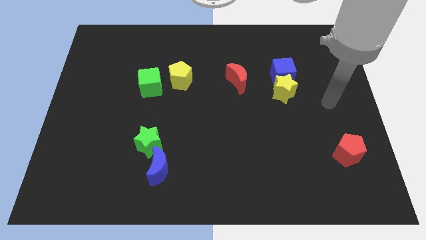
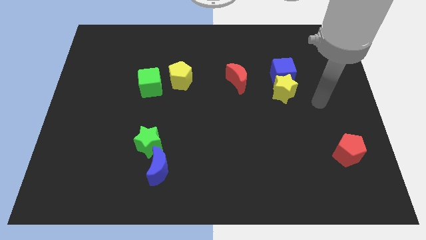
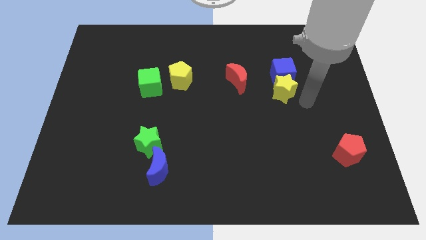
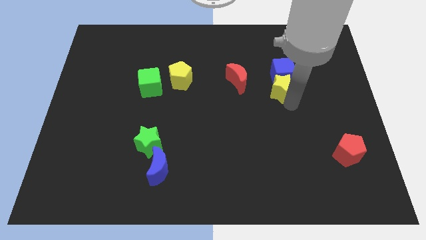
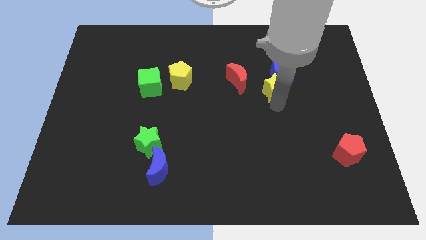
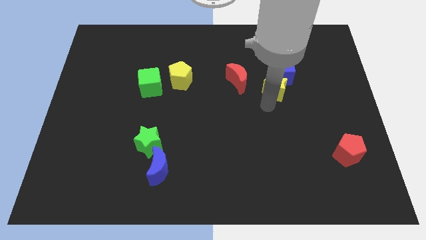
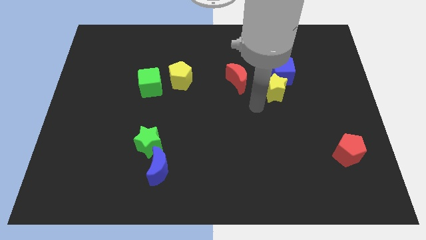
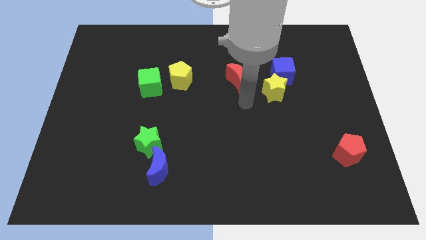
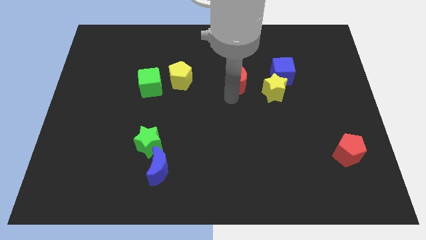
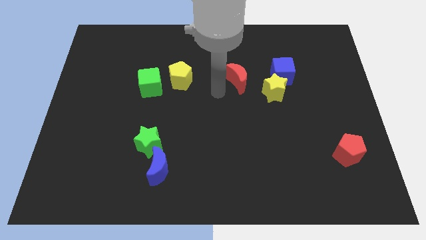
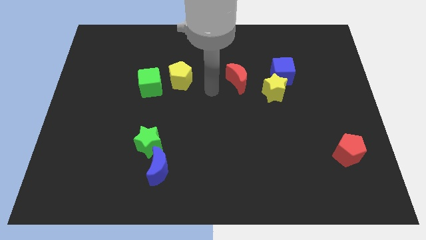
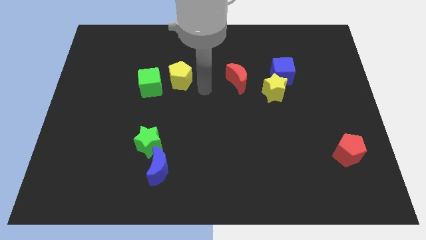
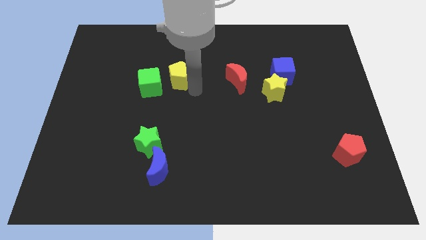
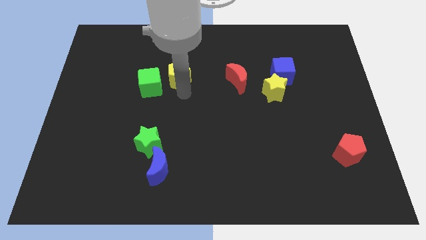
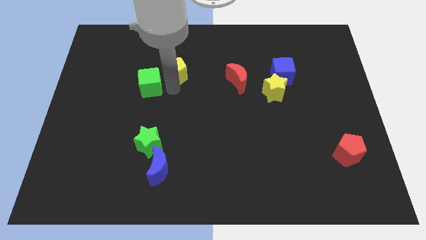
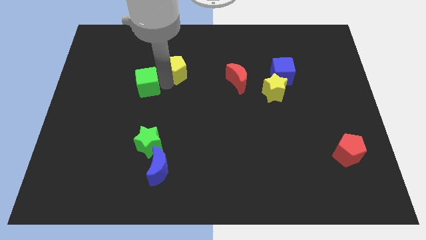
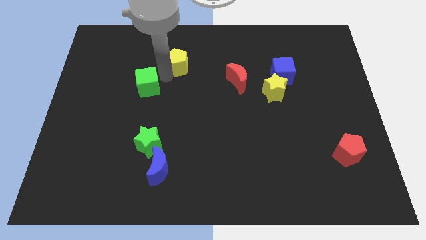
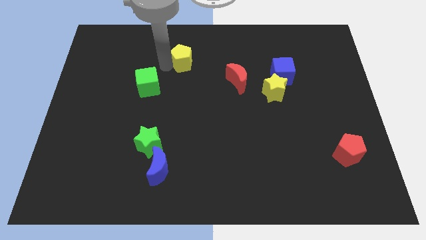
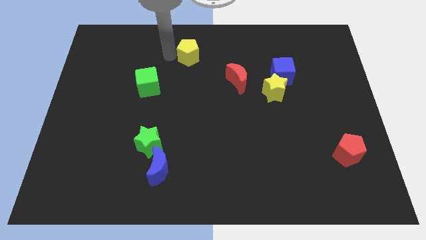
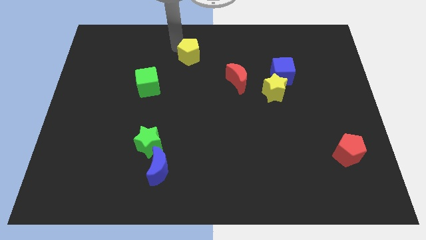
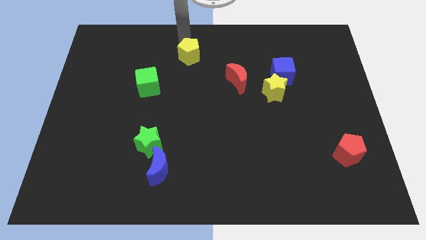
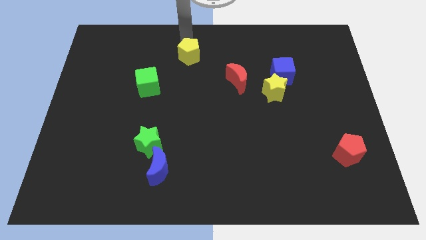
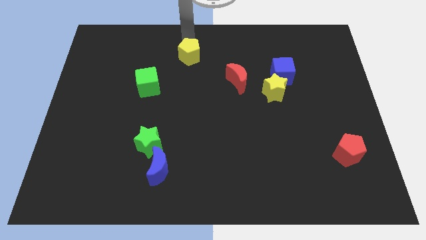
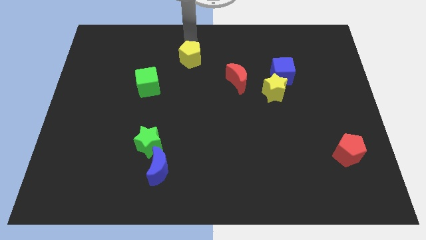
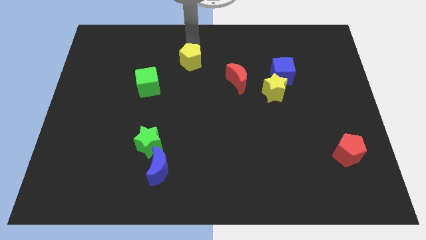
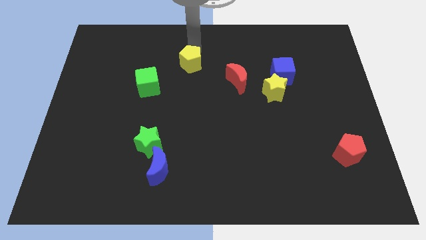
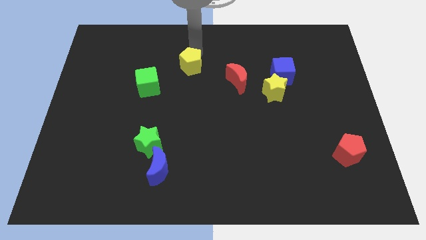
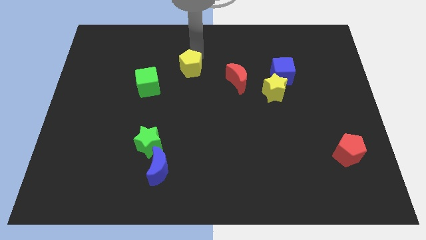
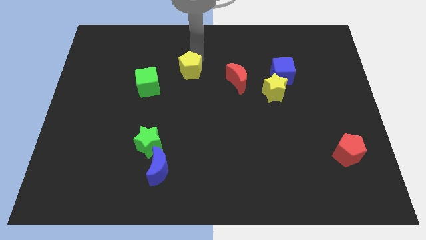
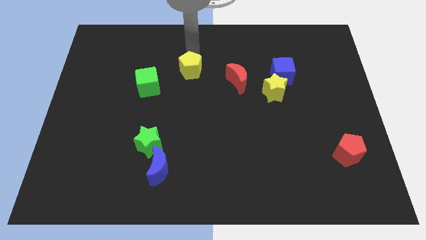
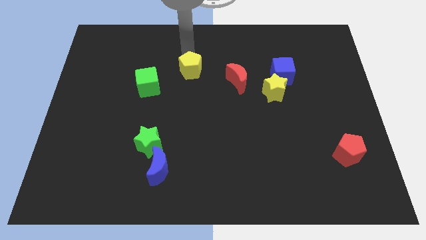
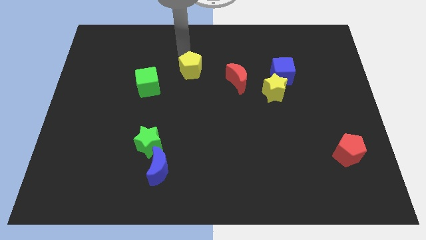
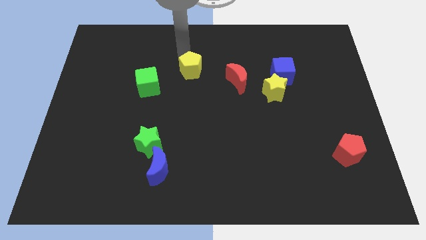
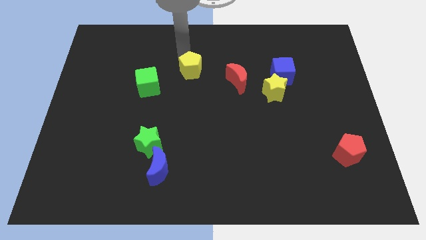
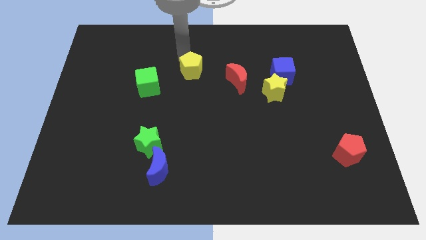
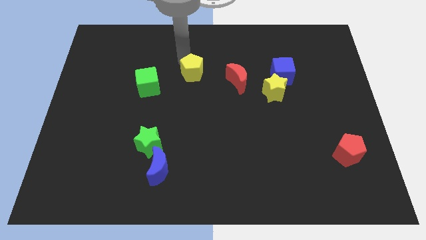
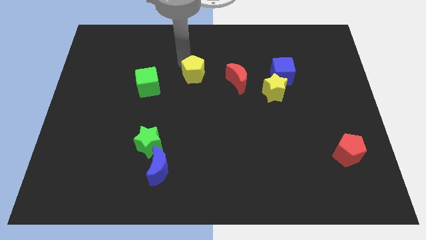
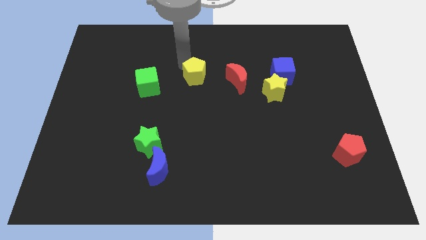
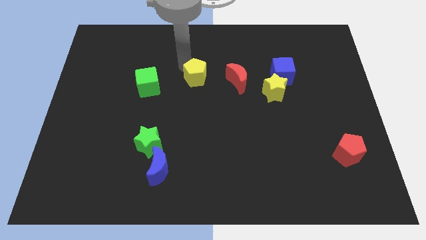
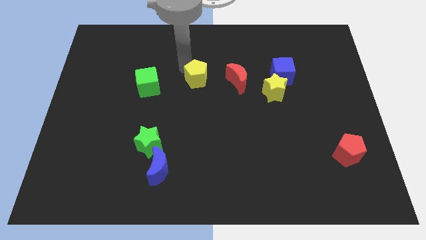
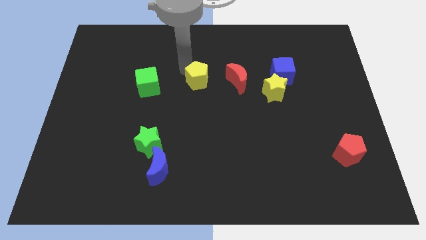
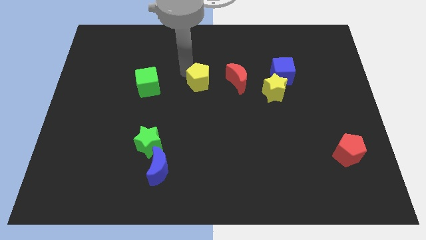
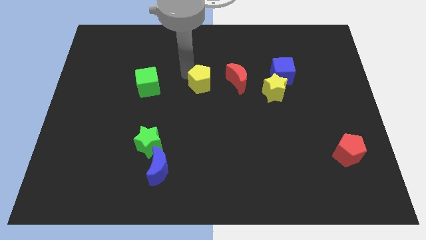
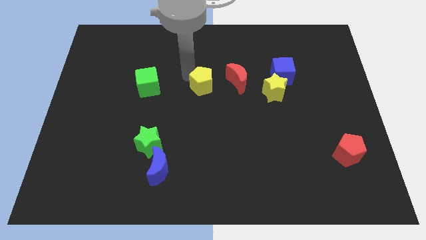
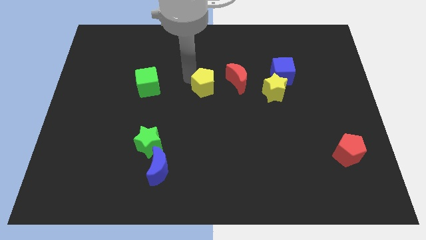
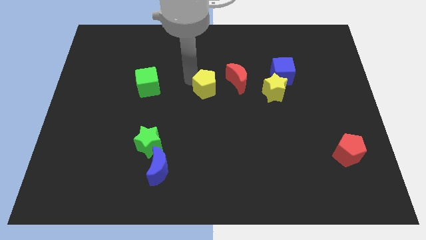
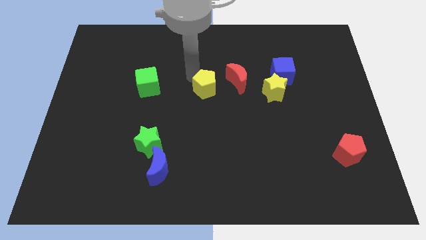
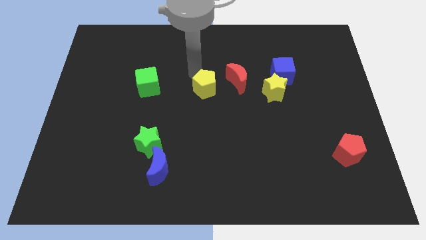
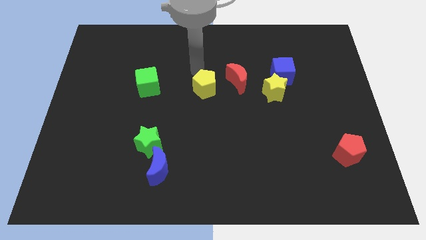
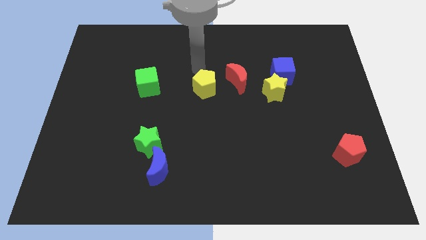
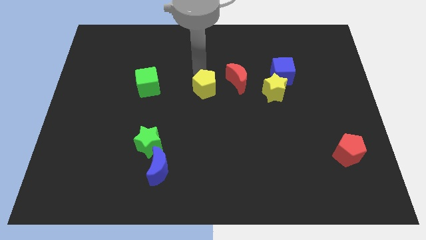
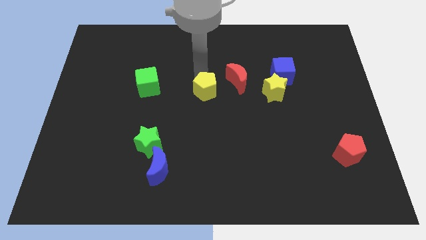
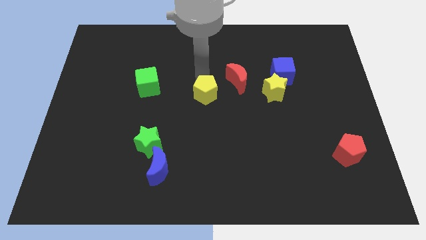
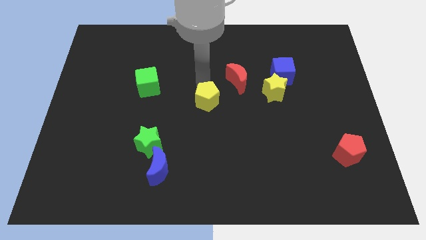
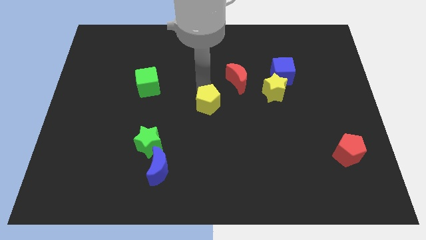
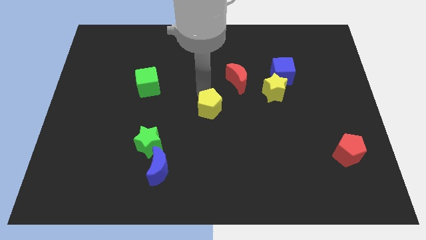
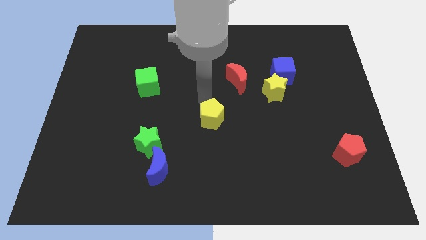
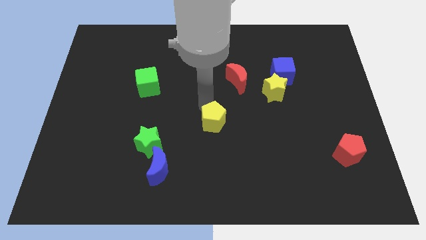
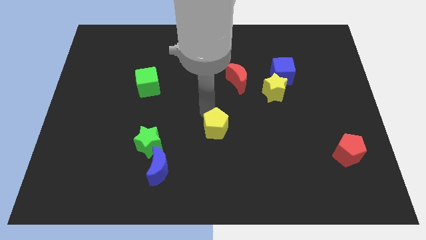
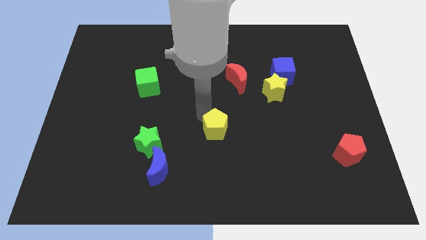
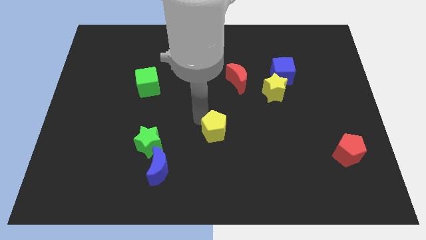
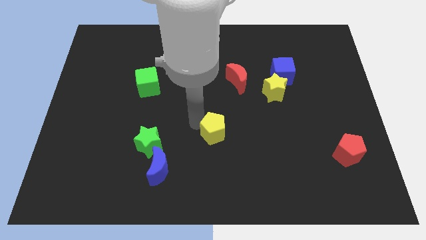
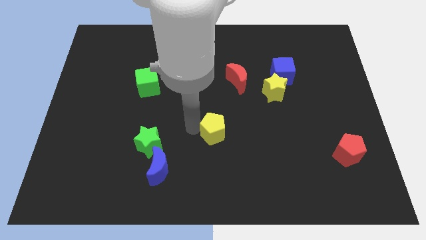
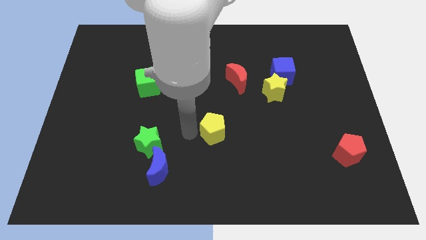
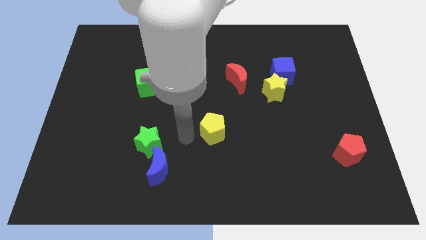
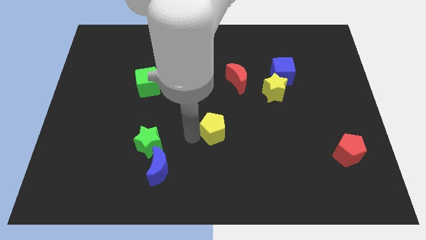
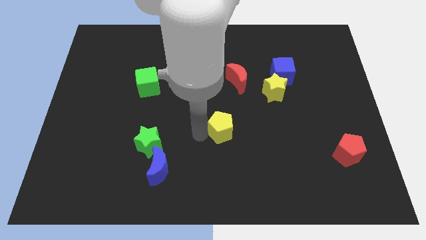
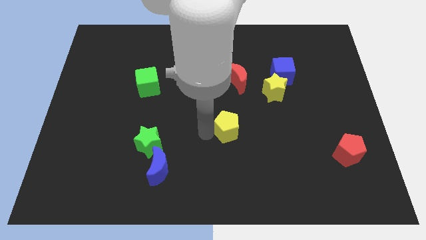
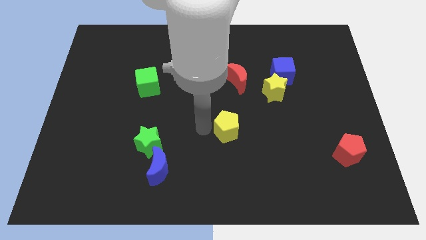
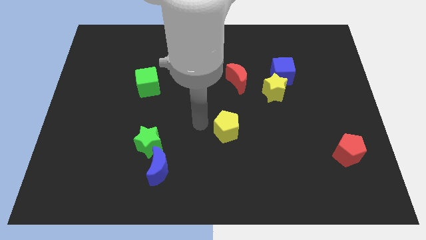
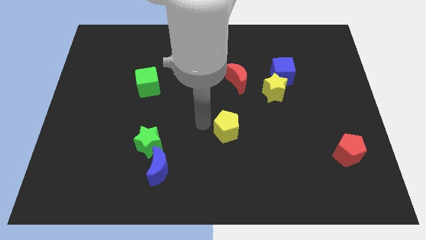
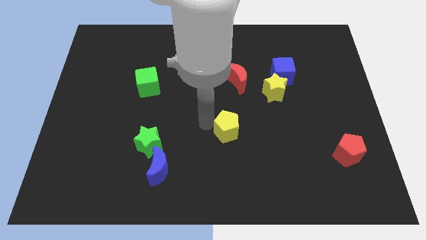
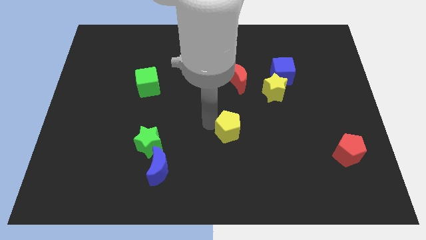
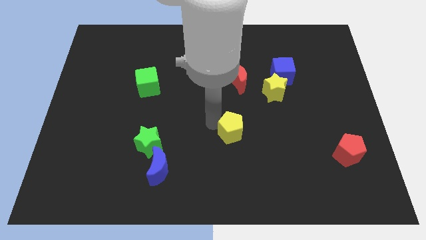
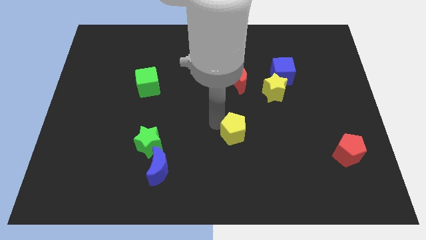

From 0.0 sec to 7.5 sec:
push the yellow pentagon diagonally down and to the right

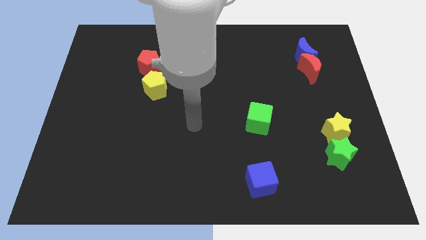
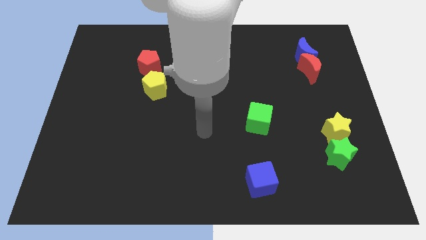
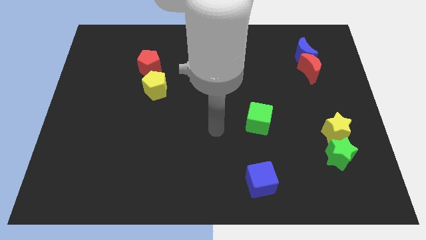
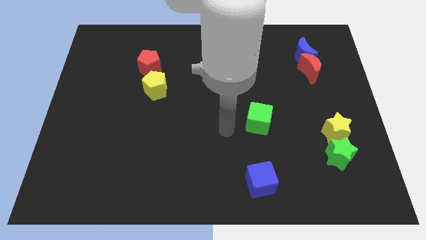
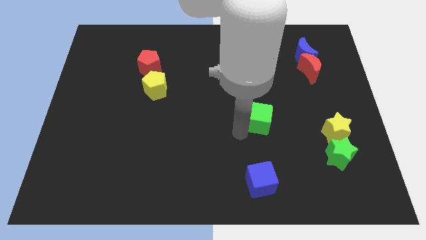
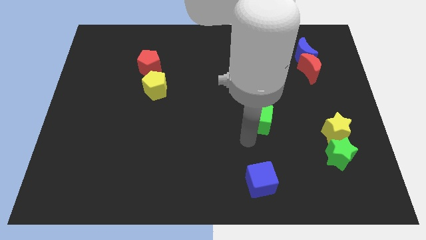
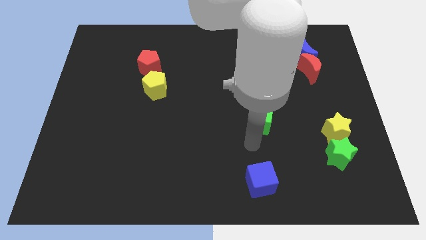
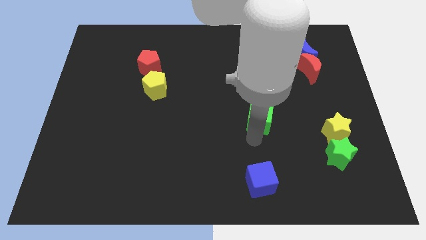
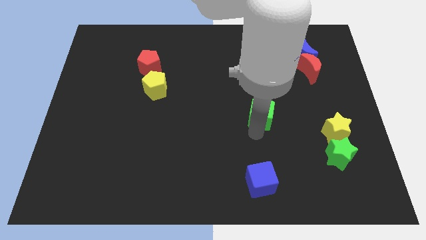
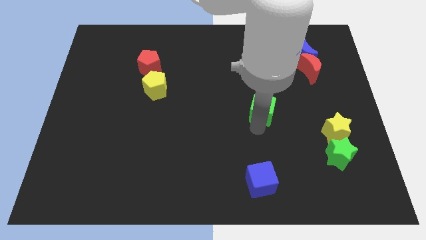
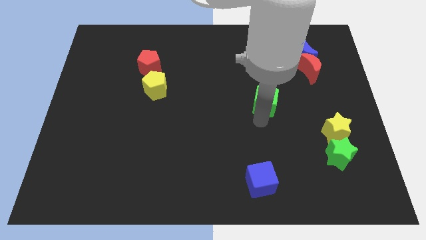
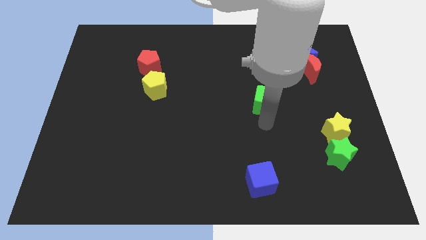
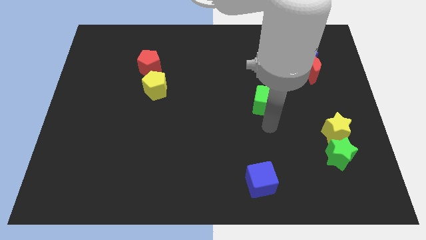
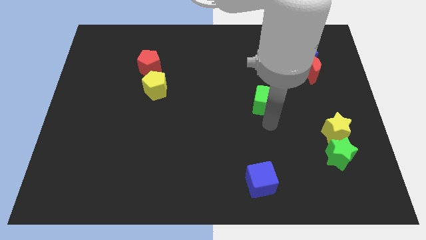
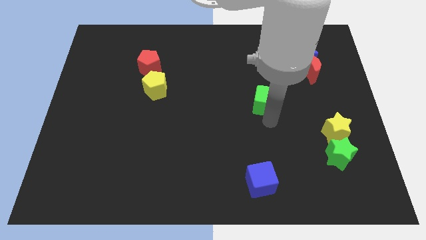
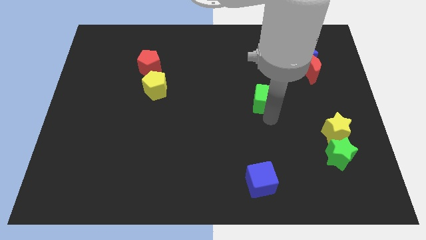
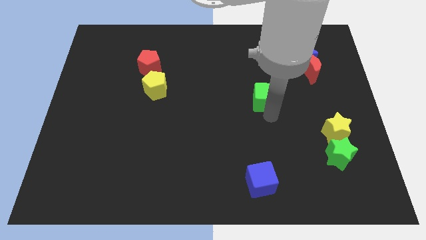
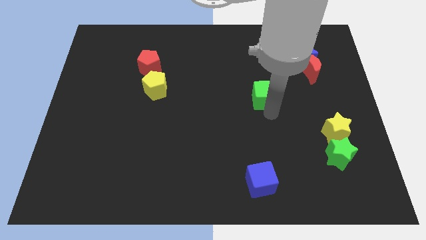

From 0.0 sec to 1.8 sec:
move the green cube up a little
